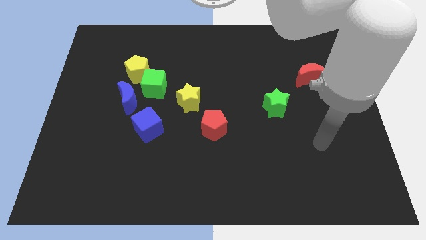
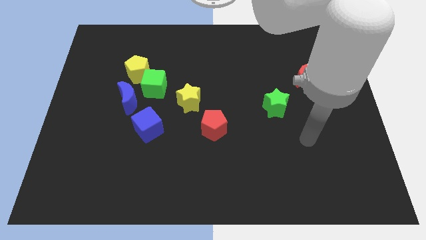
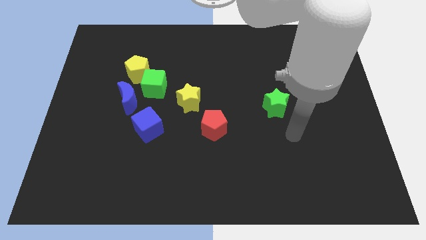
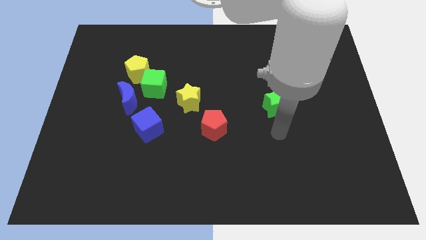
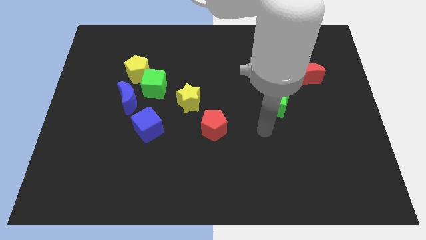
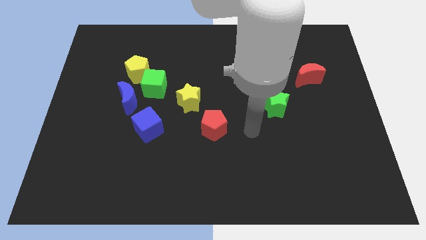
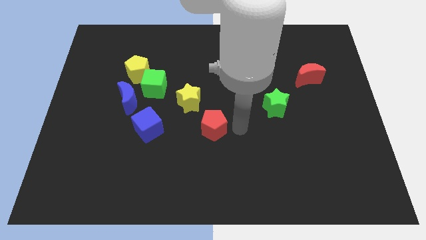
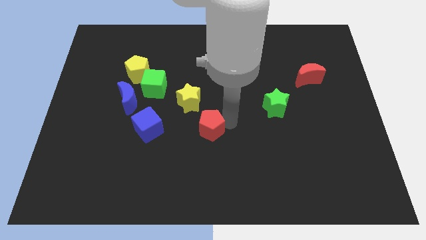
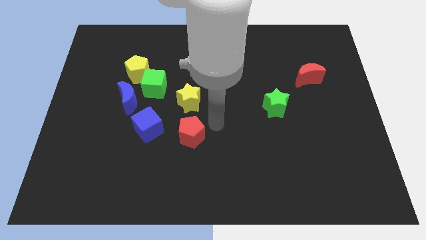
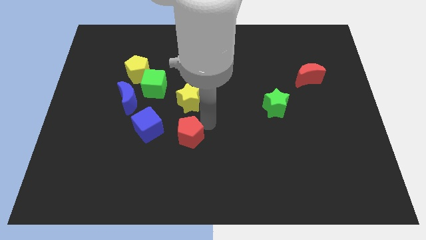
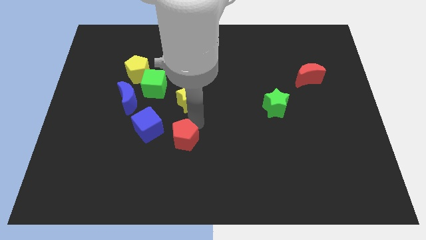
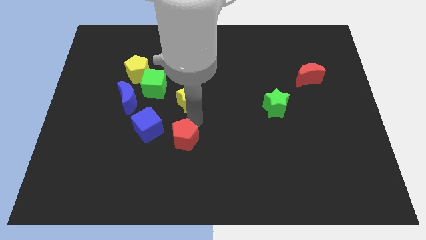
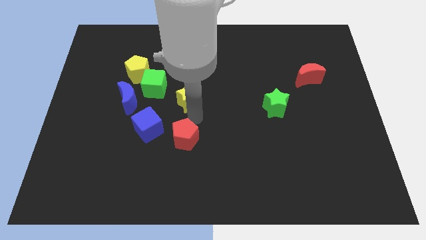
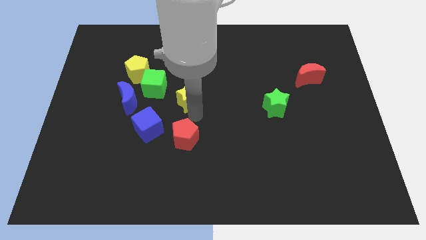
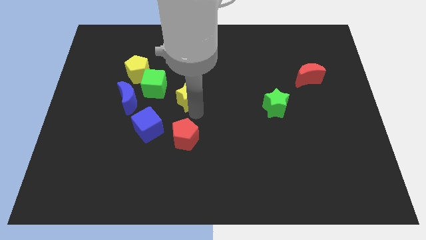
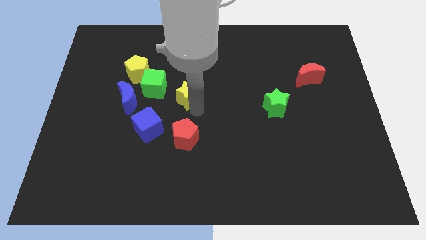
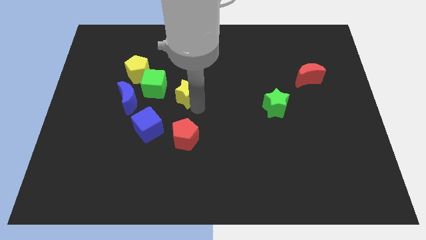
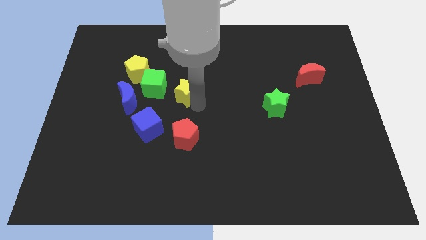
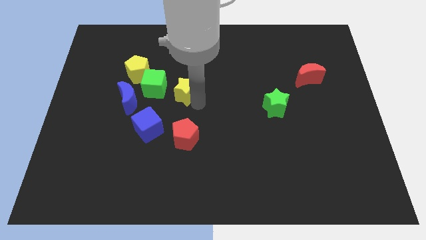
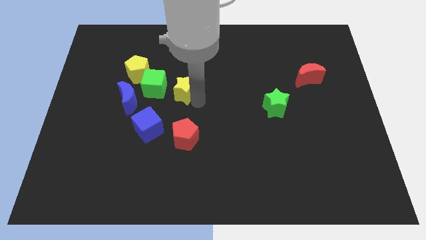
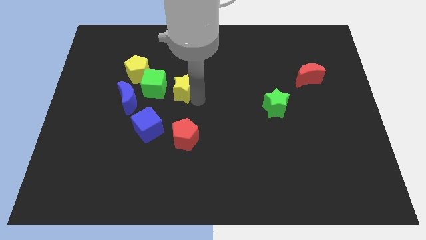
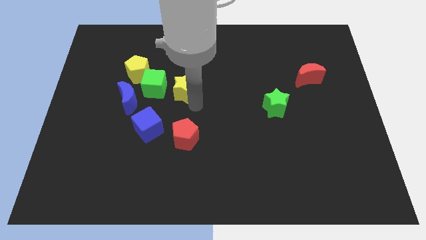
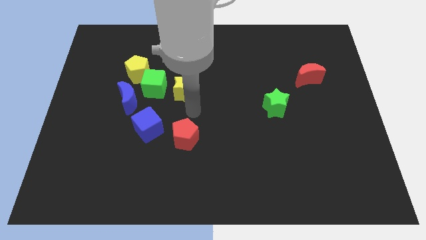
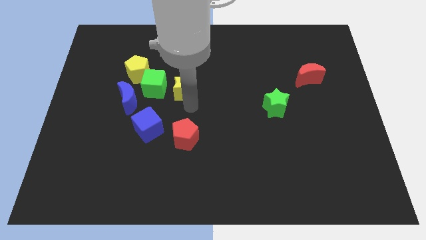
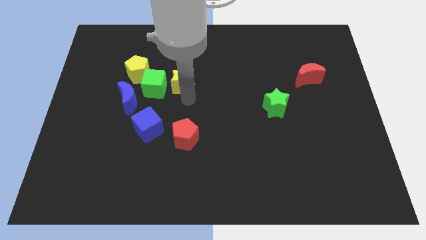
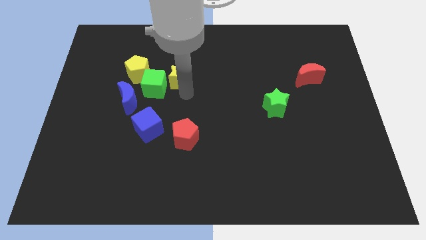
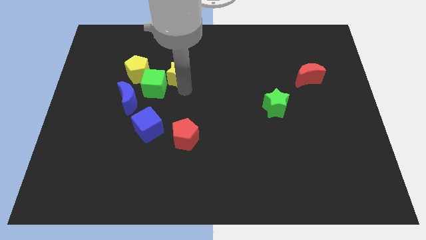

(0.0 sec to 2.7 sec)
move the yellow star a little bit upwards and then to the left

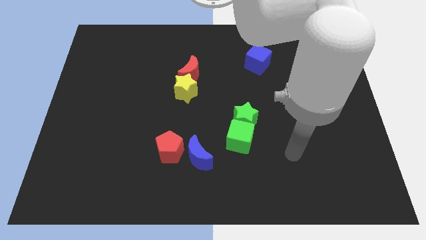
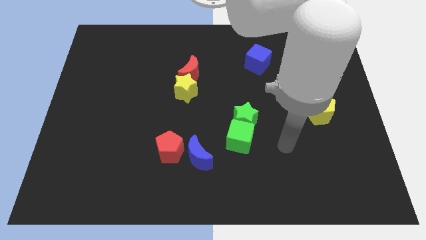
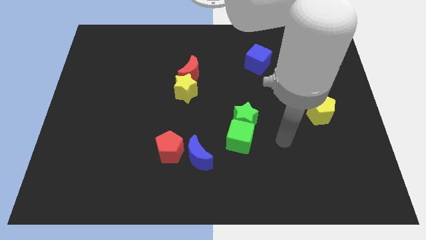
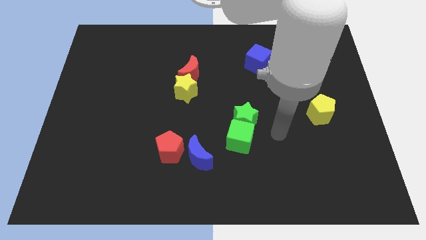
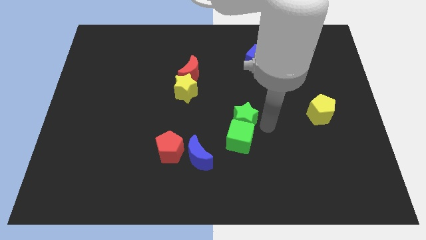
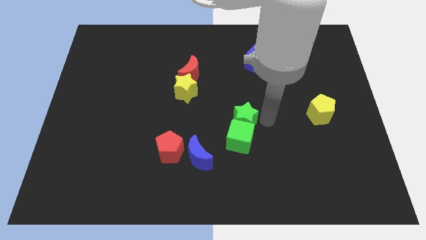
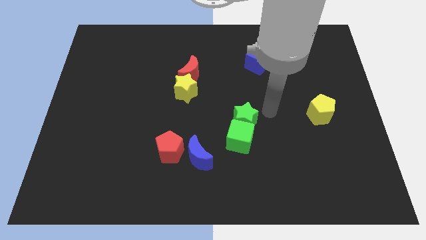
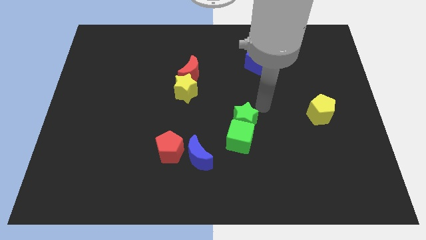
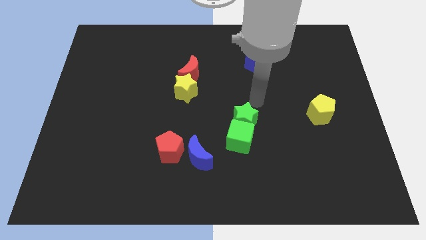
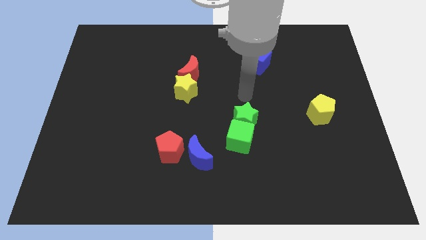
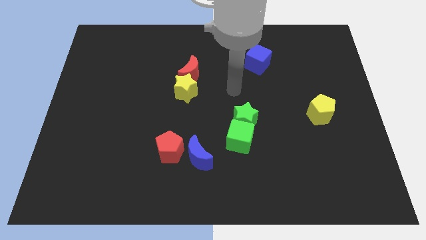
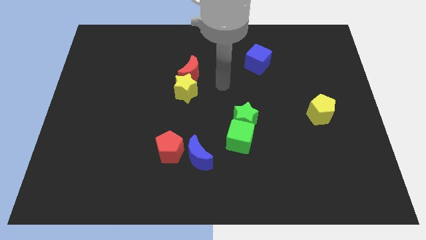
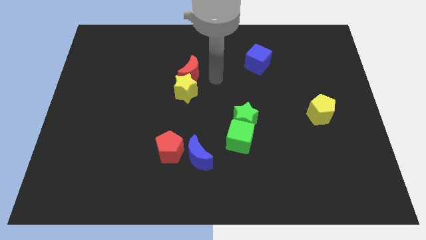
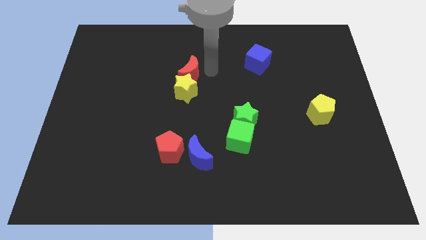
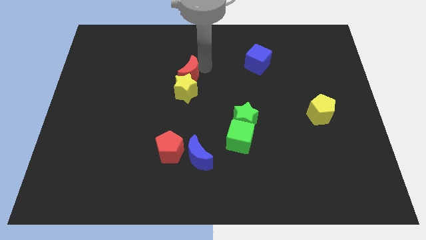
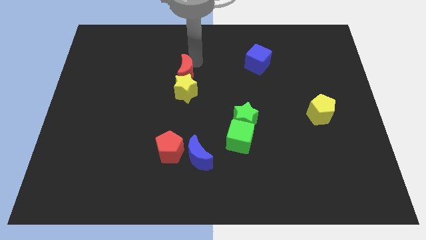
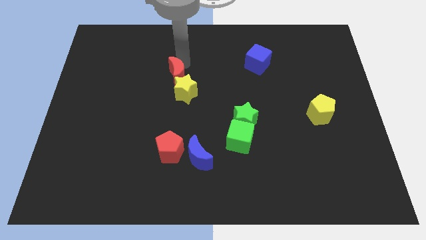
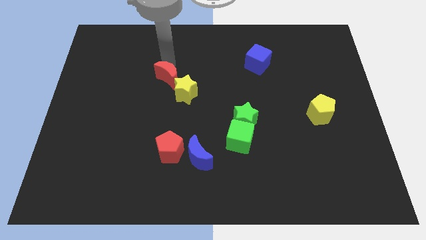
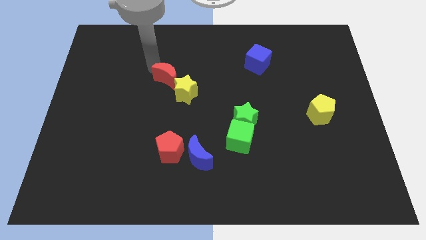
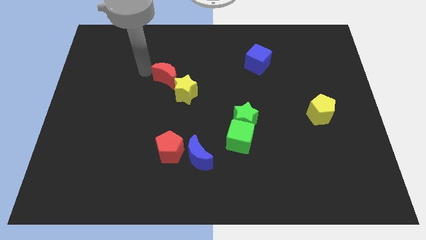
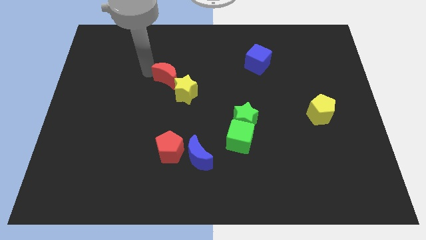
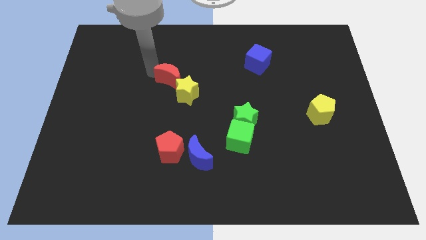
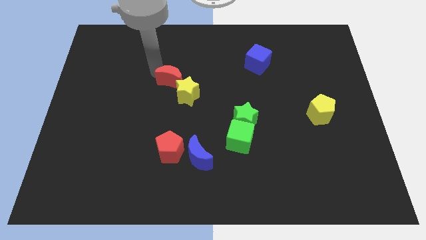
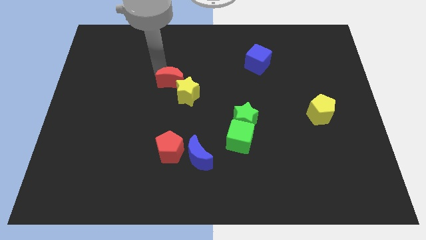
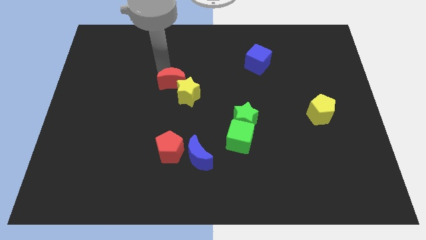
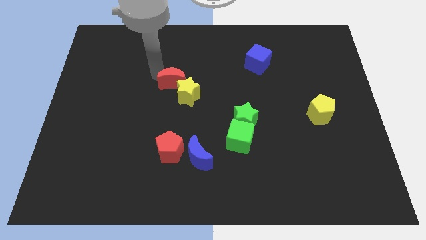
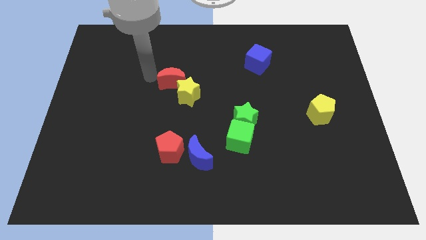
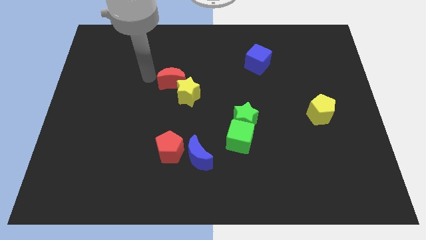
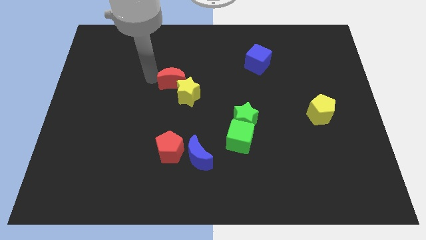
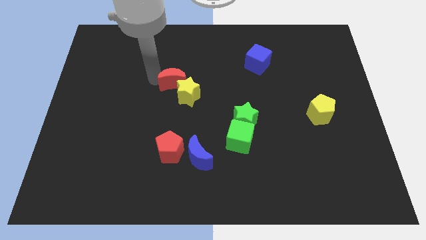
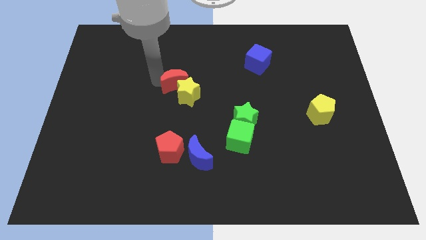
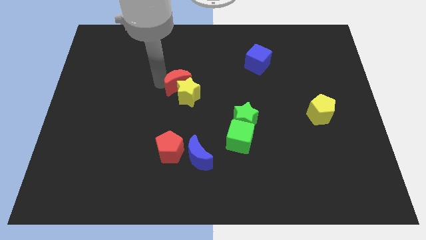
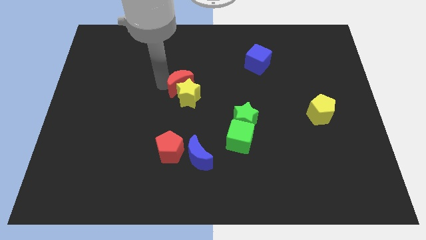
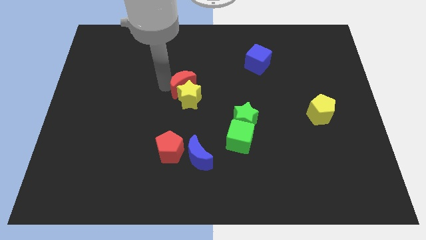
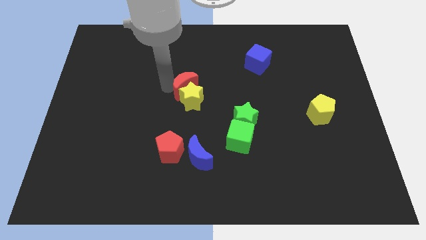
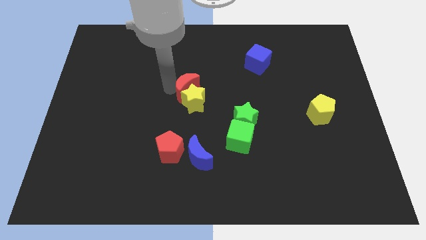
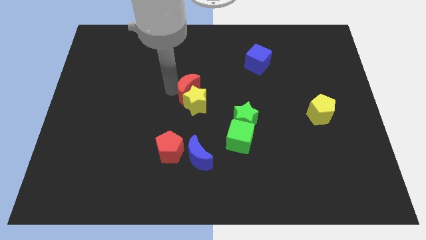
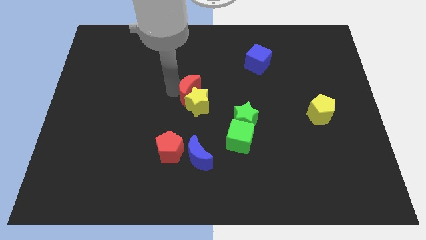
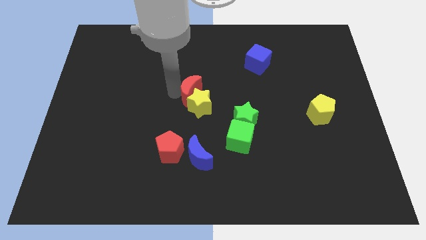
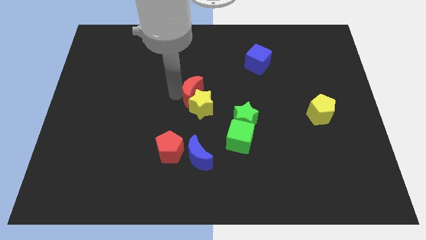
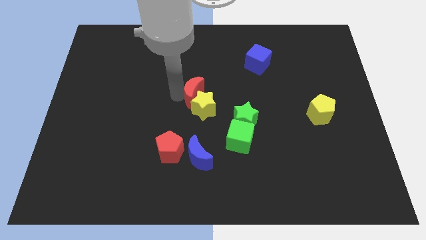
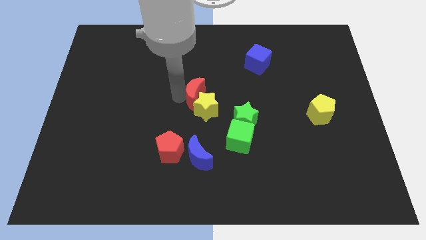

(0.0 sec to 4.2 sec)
move the red moon downwards somewhat

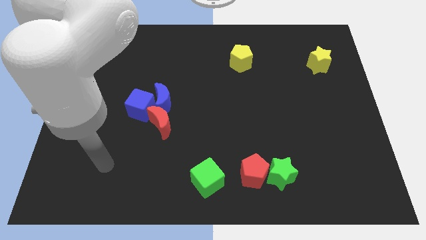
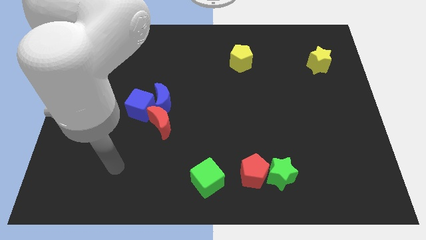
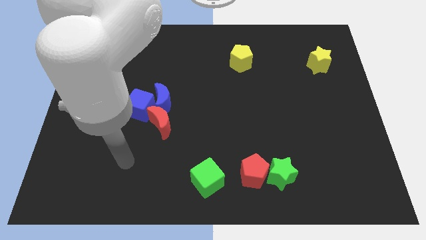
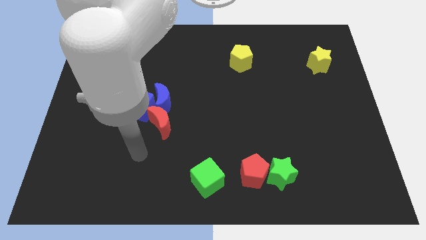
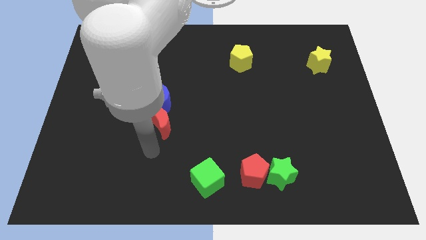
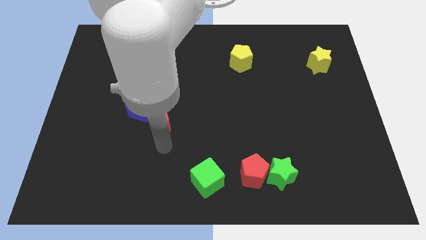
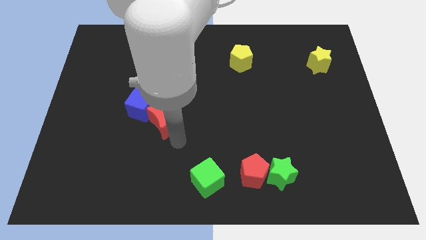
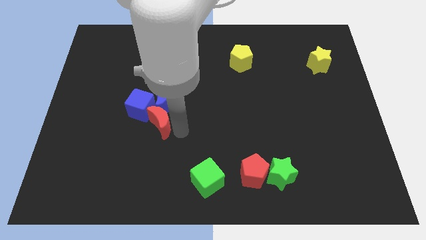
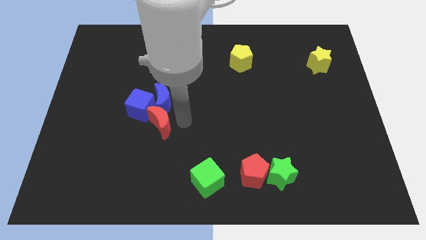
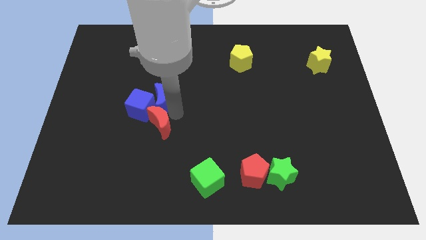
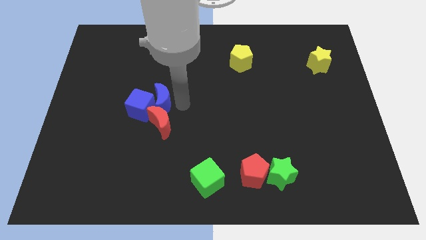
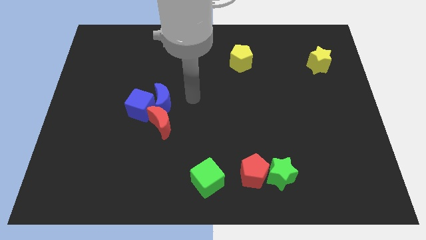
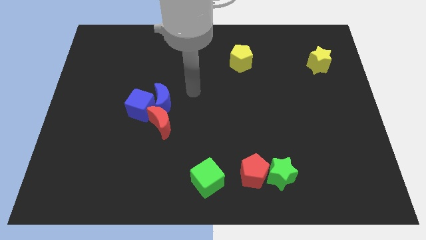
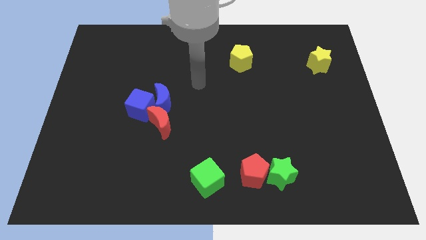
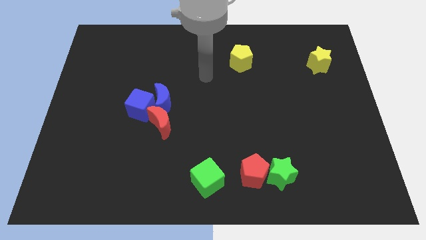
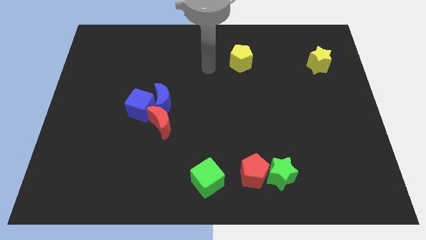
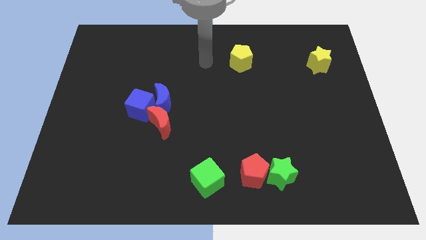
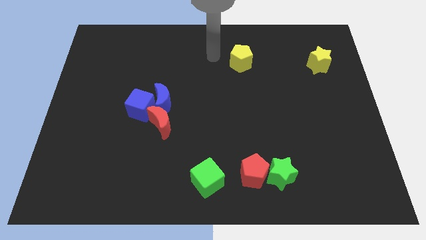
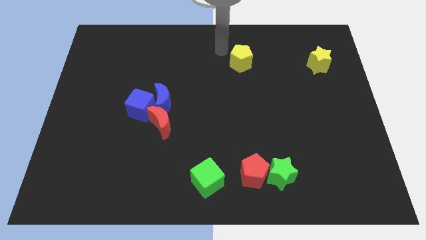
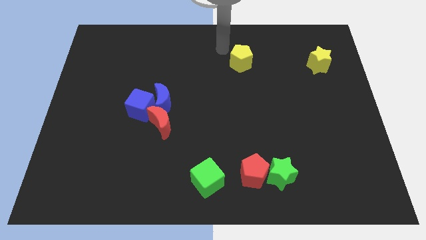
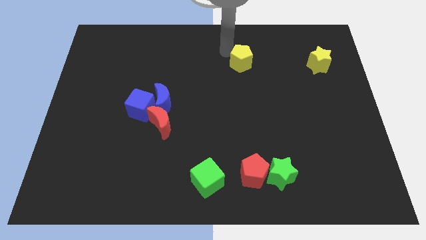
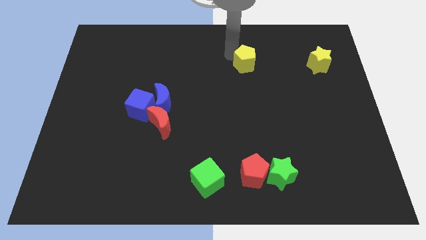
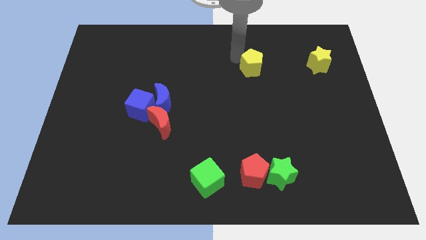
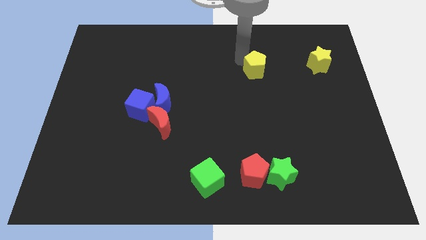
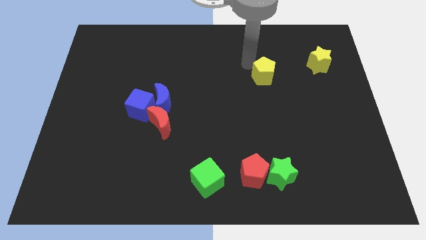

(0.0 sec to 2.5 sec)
slightly push the yellow pentagon downwards and right
